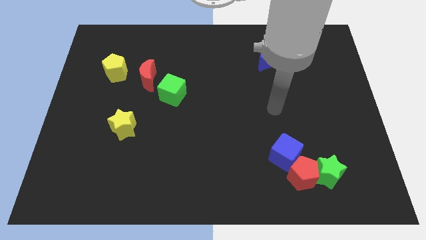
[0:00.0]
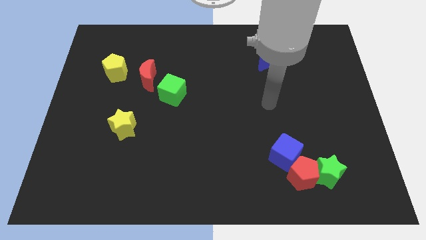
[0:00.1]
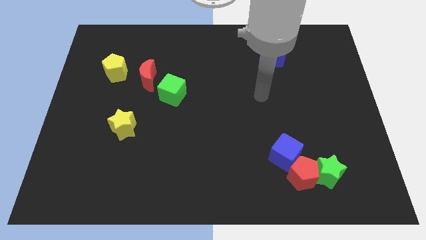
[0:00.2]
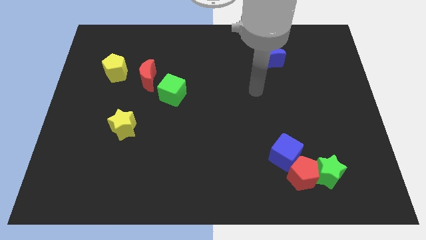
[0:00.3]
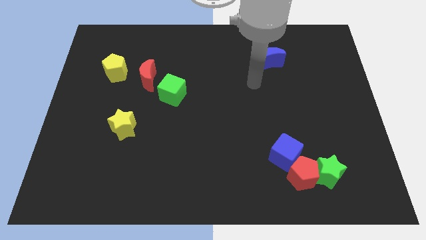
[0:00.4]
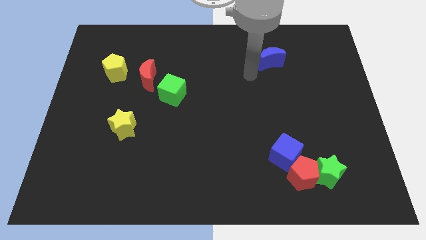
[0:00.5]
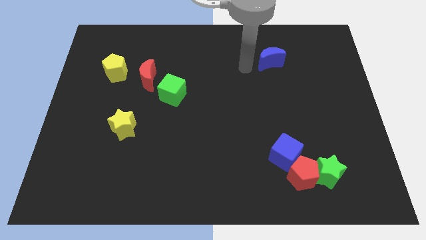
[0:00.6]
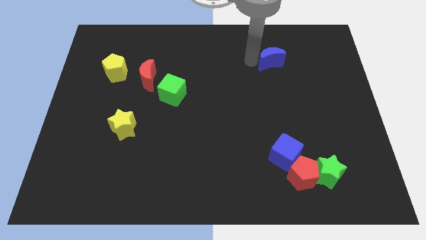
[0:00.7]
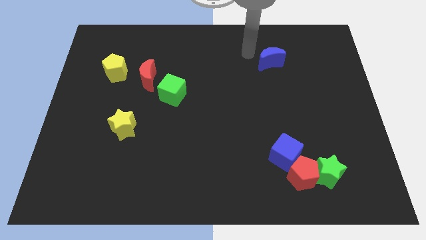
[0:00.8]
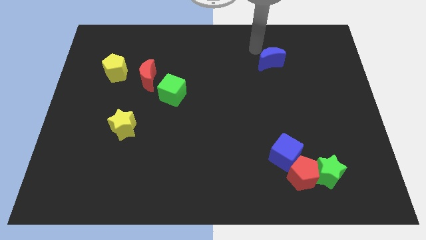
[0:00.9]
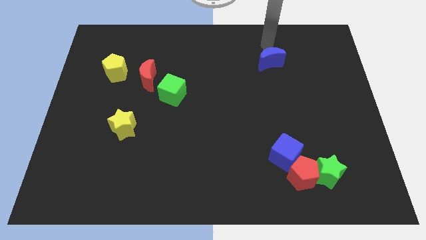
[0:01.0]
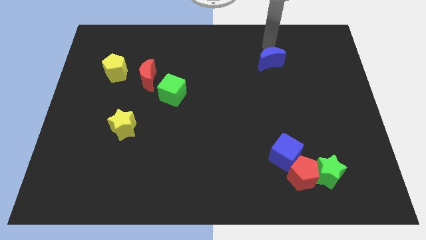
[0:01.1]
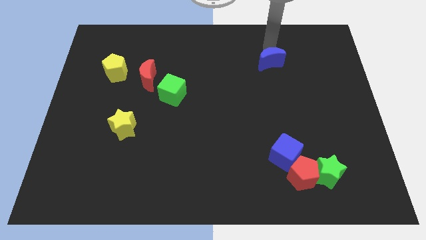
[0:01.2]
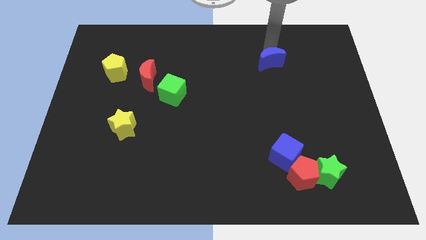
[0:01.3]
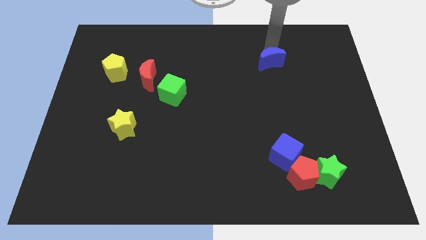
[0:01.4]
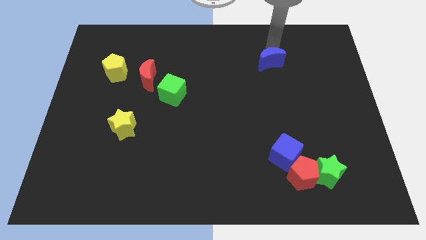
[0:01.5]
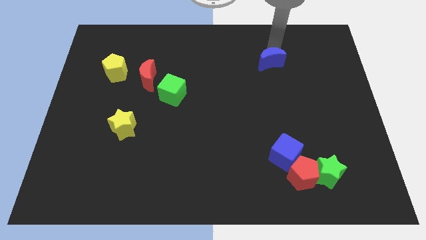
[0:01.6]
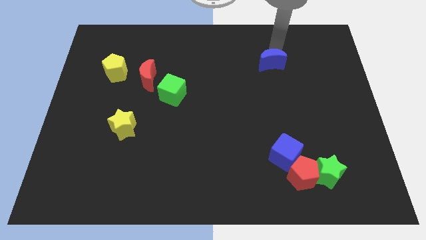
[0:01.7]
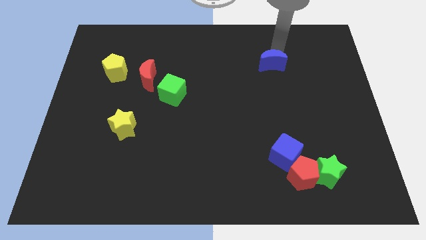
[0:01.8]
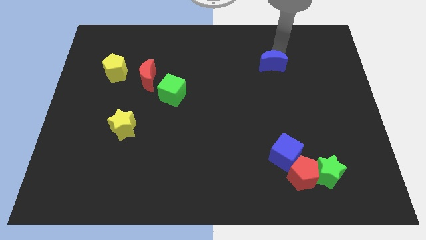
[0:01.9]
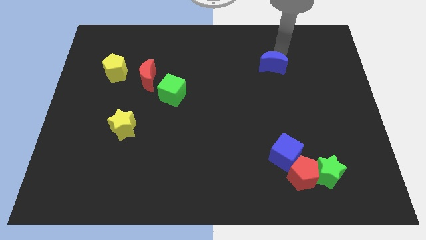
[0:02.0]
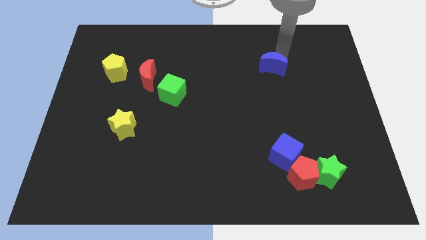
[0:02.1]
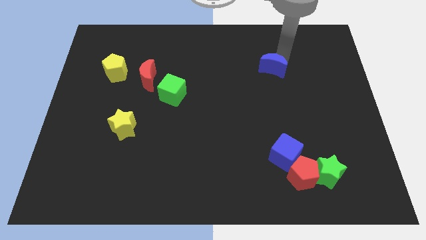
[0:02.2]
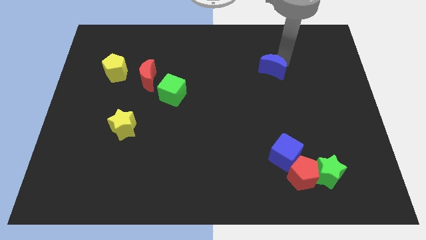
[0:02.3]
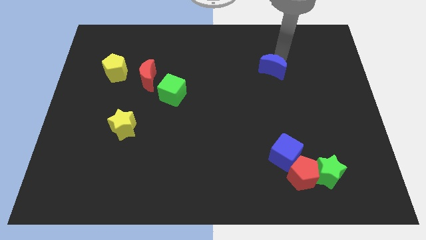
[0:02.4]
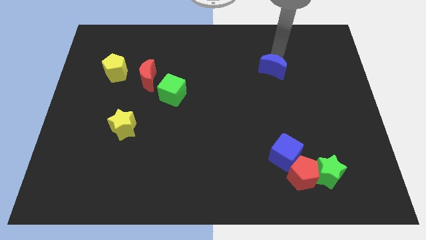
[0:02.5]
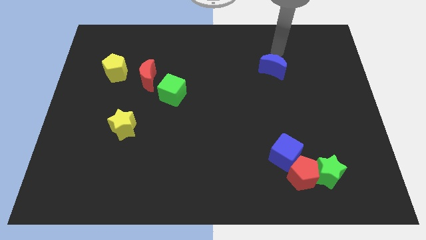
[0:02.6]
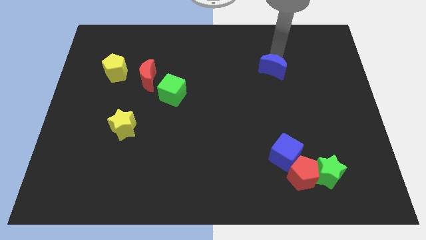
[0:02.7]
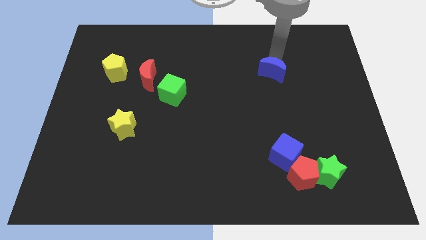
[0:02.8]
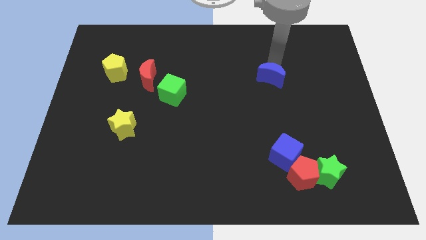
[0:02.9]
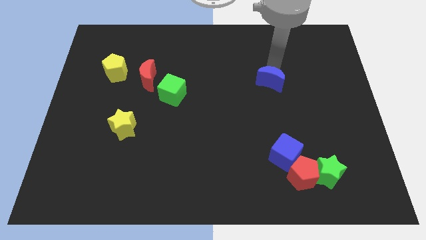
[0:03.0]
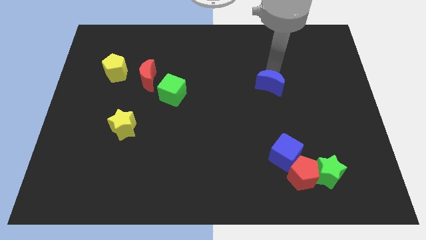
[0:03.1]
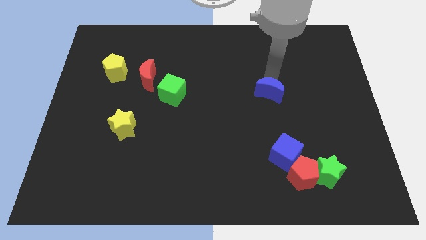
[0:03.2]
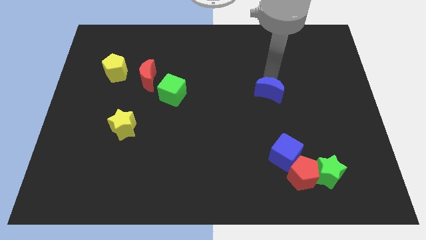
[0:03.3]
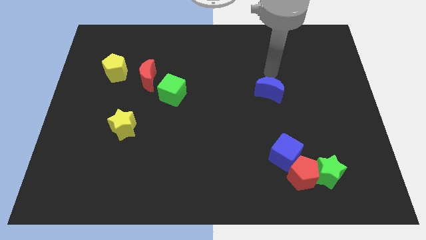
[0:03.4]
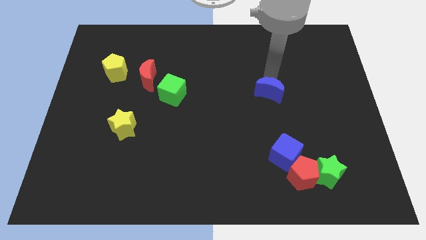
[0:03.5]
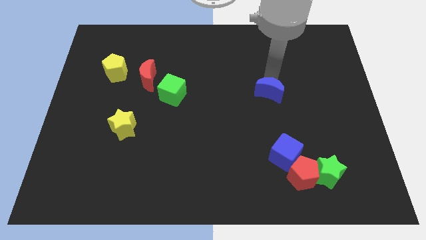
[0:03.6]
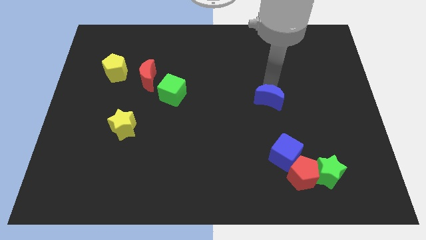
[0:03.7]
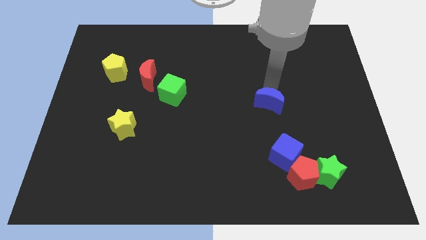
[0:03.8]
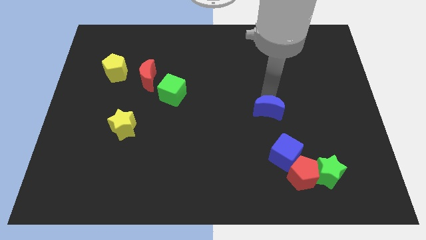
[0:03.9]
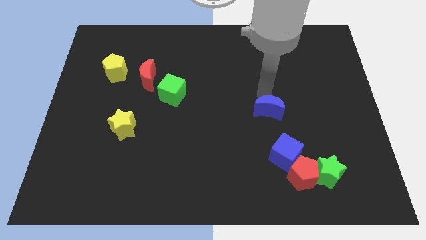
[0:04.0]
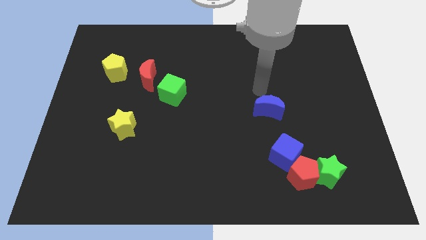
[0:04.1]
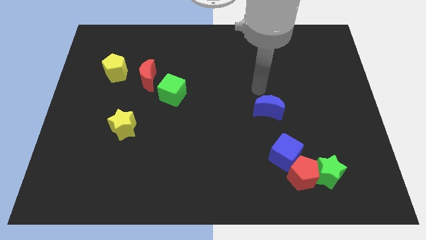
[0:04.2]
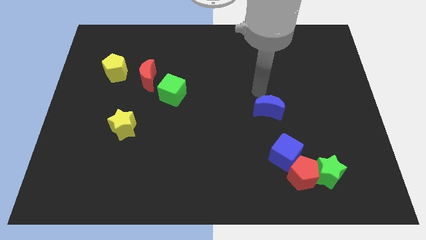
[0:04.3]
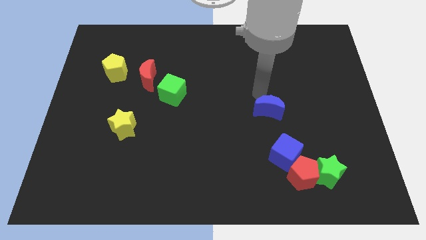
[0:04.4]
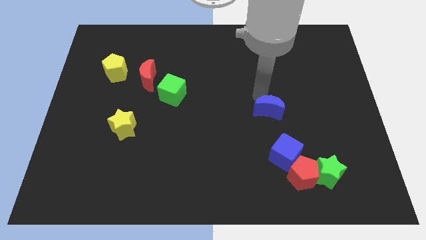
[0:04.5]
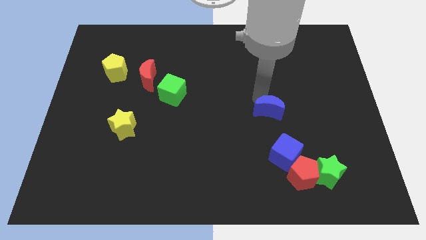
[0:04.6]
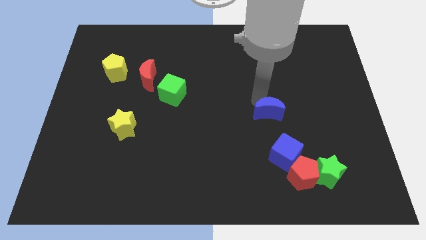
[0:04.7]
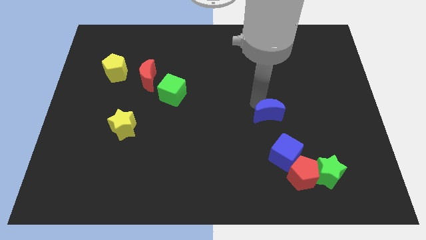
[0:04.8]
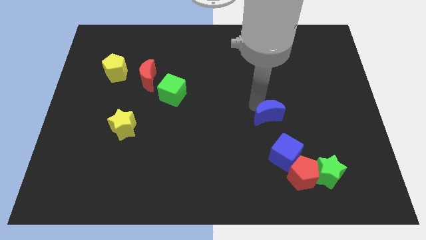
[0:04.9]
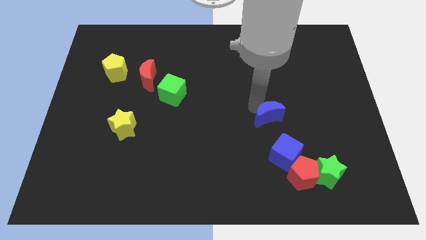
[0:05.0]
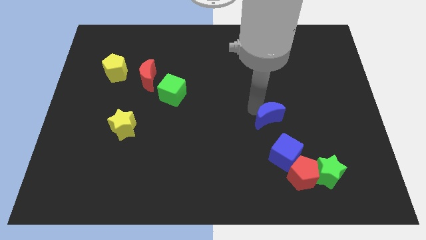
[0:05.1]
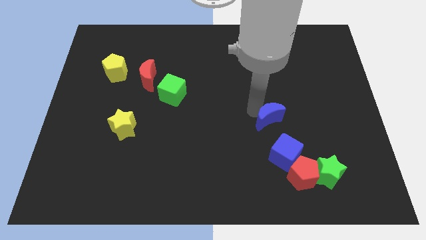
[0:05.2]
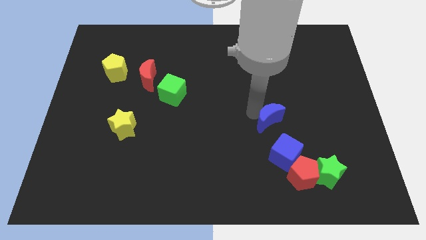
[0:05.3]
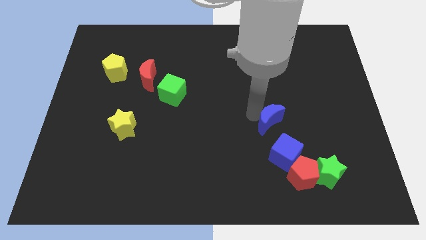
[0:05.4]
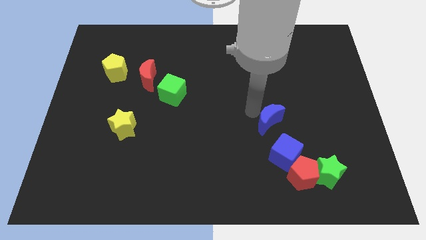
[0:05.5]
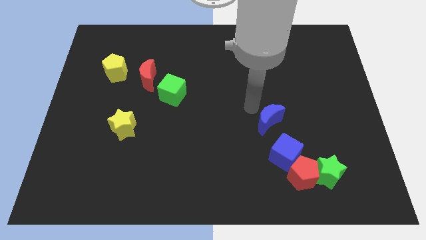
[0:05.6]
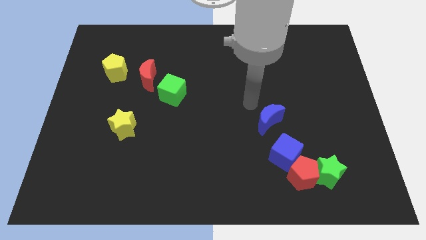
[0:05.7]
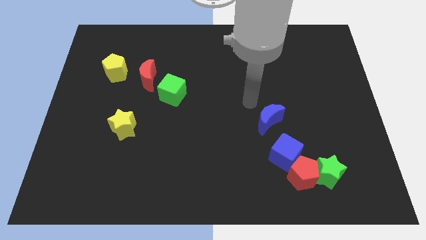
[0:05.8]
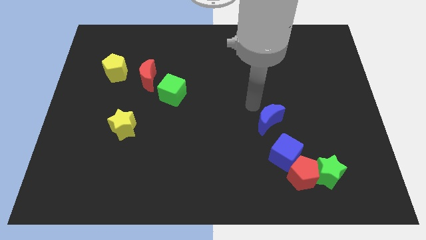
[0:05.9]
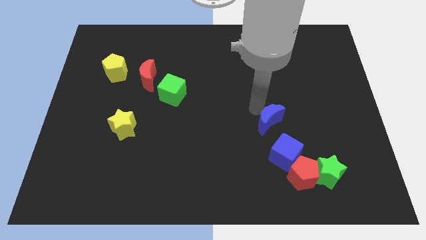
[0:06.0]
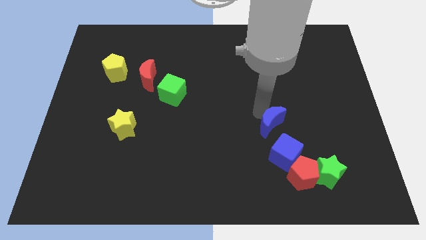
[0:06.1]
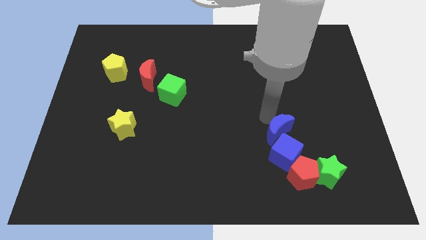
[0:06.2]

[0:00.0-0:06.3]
push the blue moon next to the blue cube
